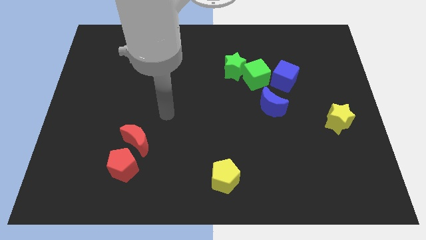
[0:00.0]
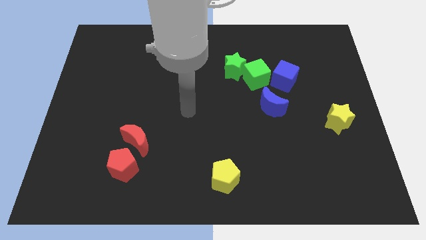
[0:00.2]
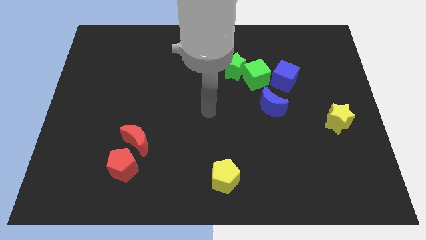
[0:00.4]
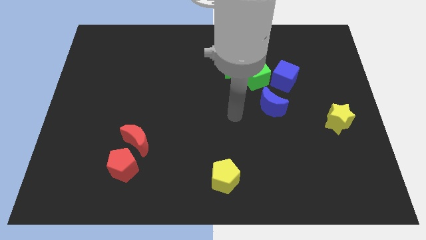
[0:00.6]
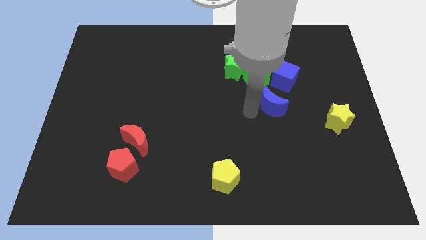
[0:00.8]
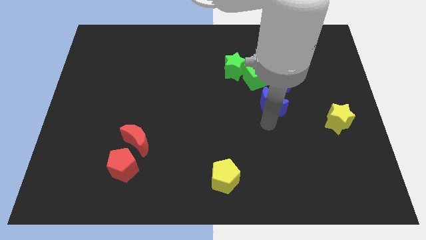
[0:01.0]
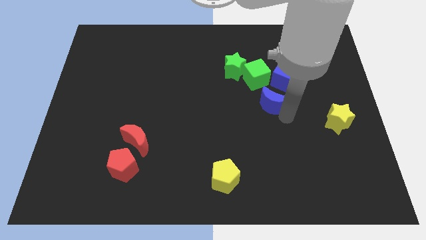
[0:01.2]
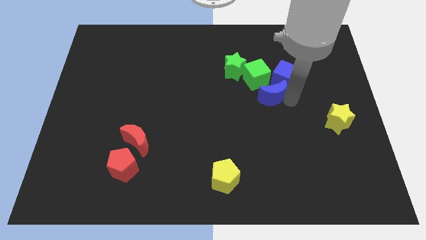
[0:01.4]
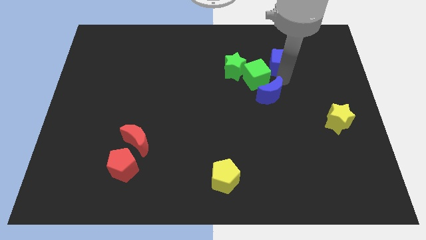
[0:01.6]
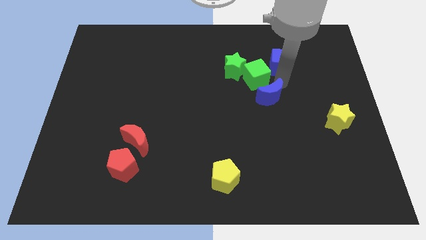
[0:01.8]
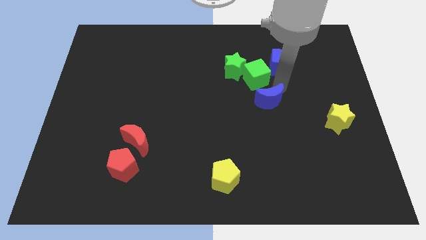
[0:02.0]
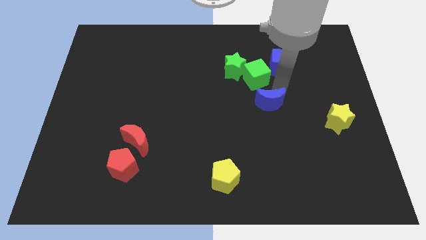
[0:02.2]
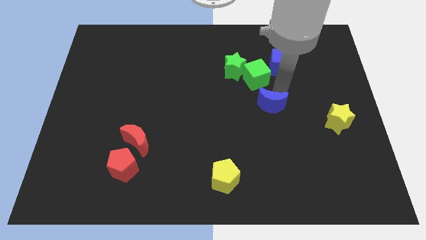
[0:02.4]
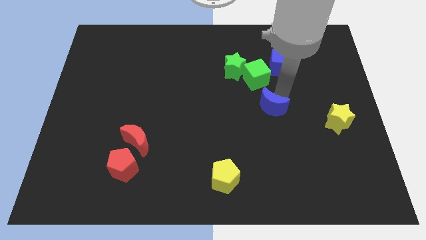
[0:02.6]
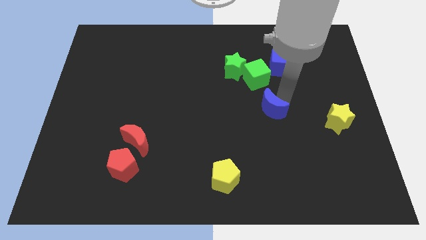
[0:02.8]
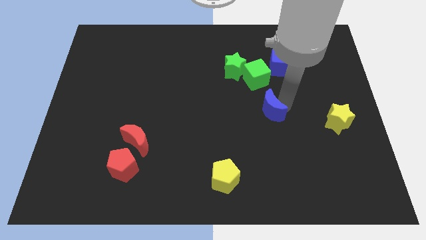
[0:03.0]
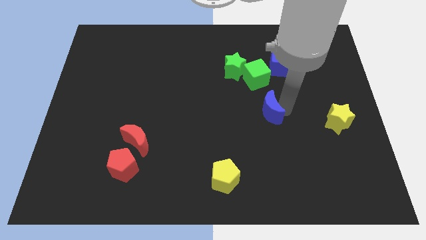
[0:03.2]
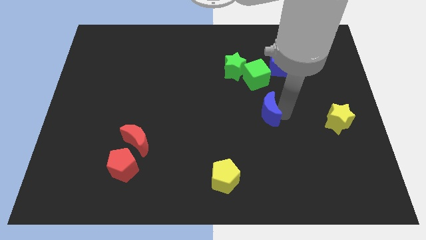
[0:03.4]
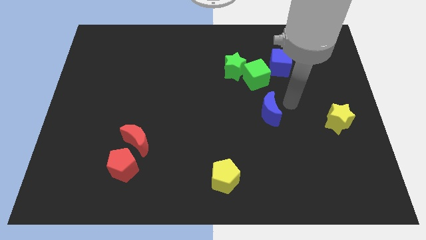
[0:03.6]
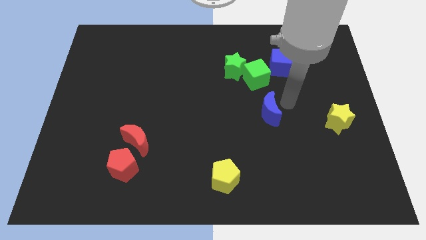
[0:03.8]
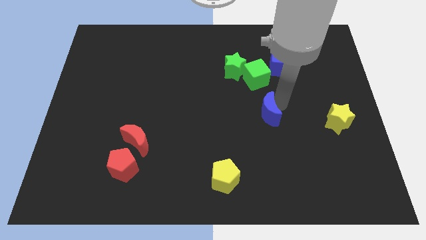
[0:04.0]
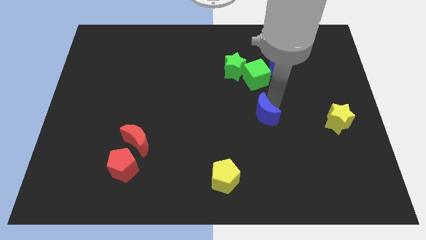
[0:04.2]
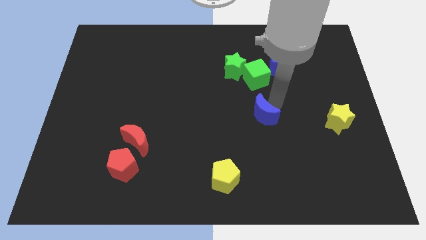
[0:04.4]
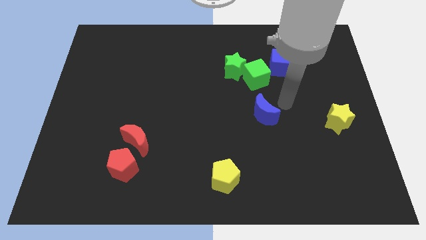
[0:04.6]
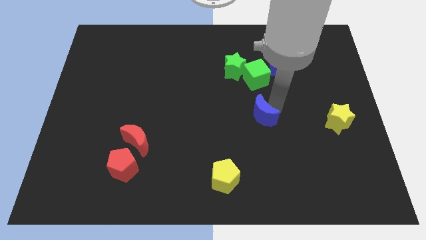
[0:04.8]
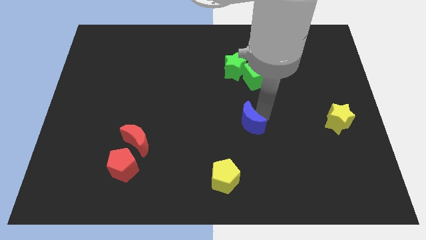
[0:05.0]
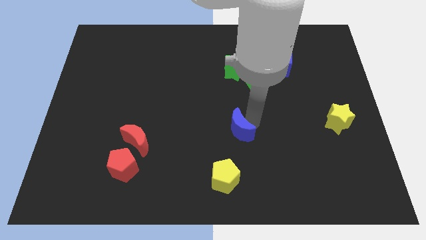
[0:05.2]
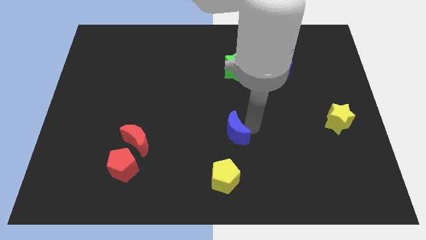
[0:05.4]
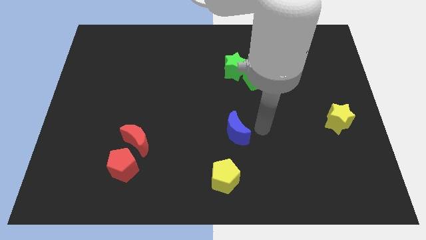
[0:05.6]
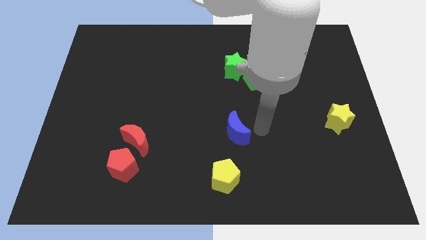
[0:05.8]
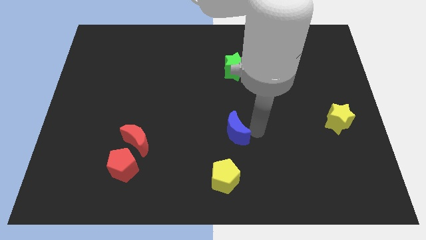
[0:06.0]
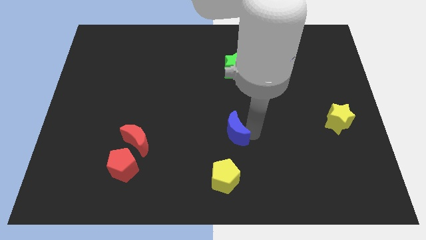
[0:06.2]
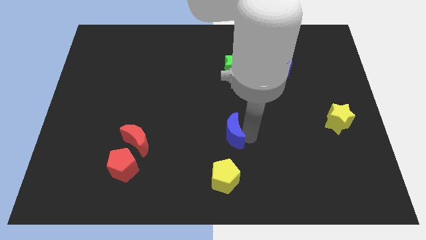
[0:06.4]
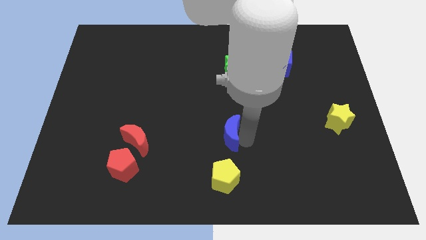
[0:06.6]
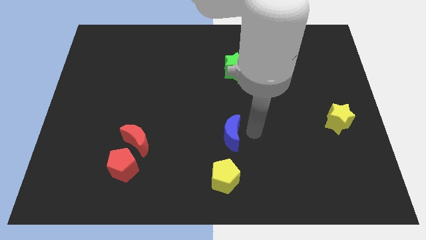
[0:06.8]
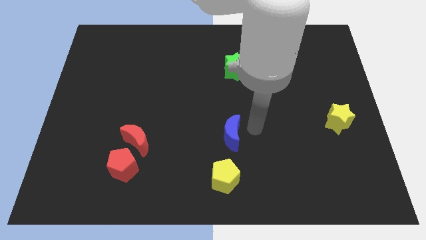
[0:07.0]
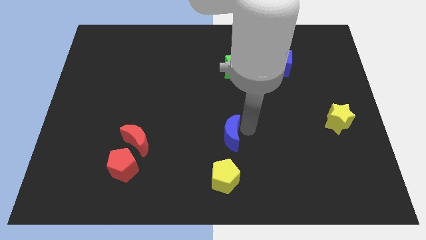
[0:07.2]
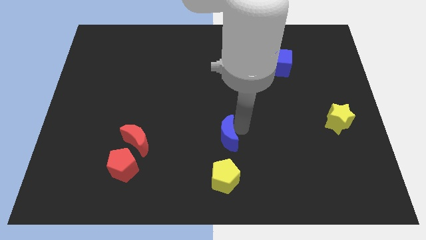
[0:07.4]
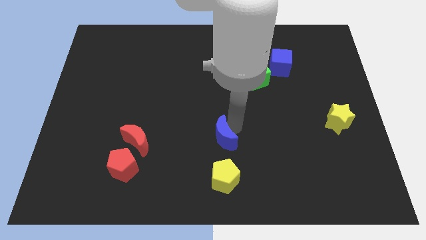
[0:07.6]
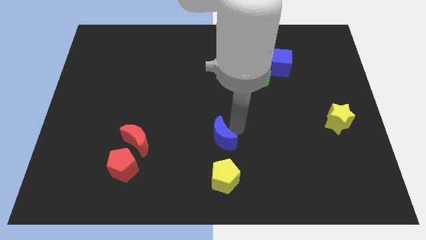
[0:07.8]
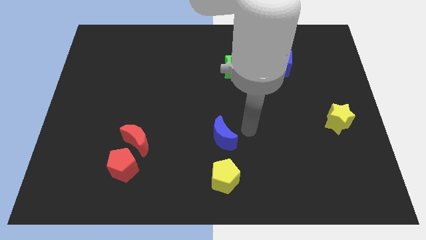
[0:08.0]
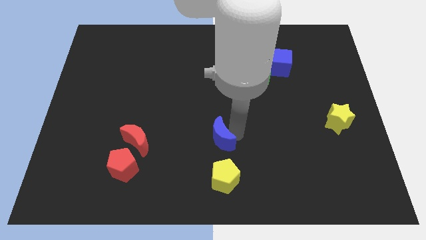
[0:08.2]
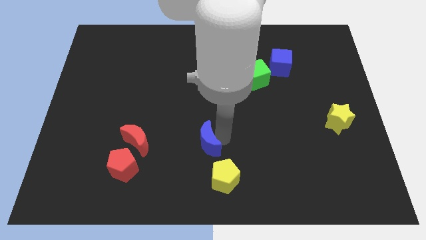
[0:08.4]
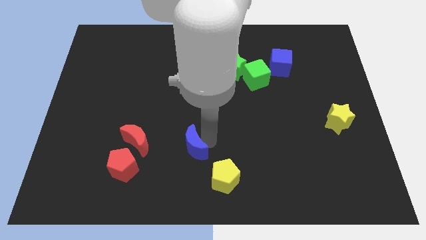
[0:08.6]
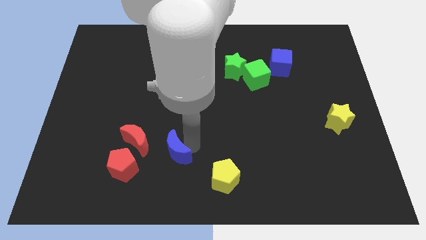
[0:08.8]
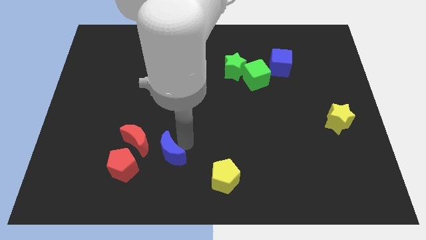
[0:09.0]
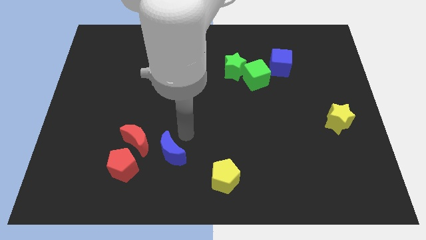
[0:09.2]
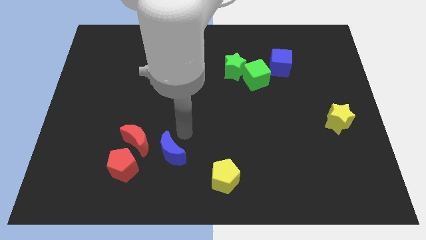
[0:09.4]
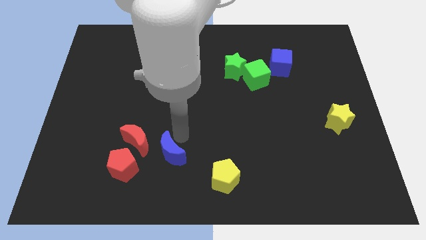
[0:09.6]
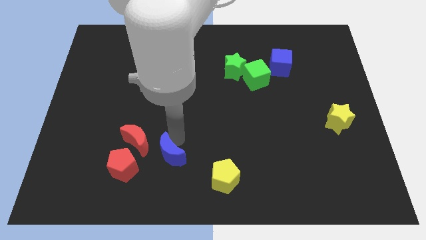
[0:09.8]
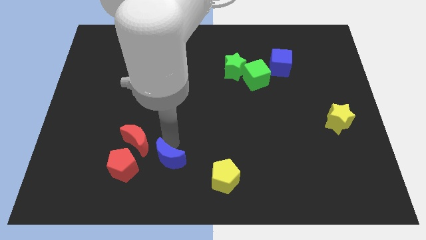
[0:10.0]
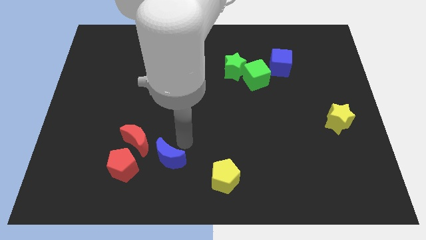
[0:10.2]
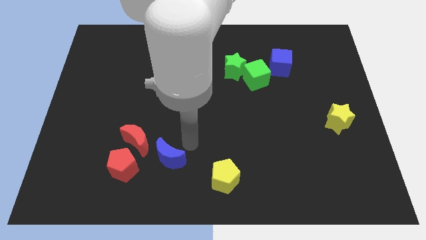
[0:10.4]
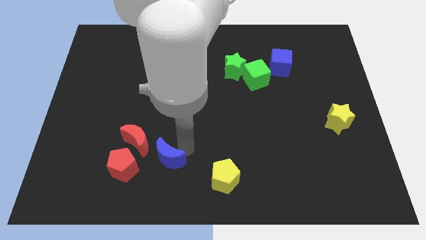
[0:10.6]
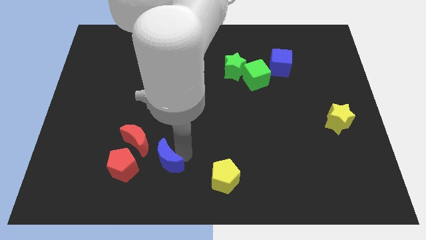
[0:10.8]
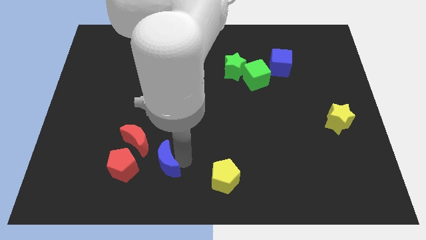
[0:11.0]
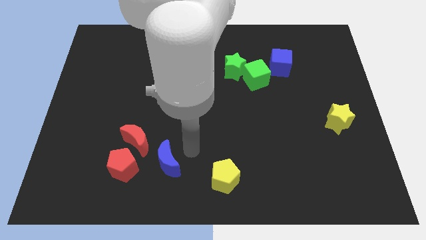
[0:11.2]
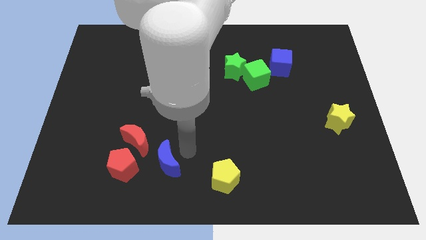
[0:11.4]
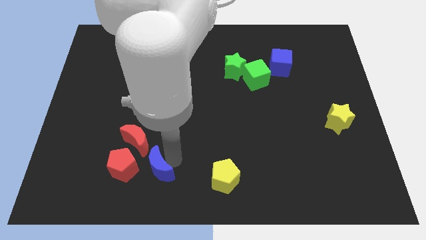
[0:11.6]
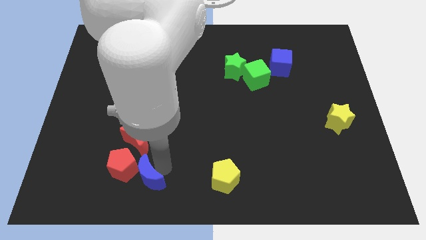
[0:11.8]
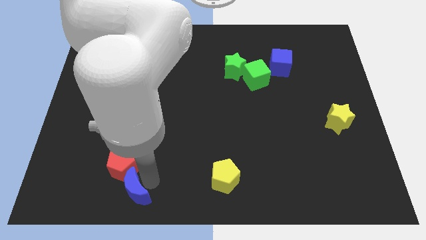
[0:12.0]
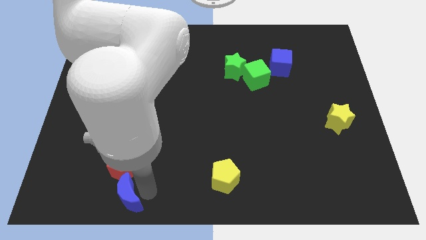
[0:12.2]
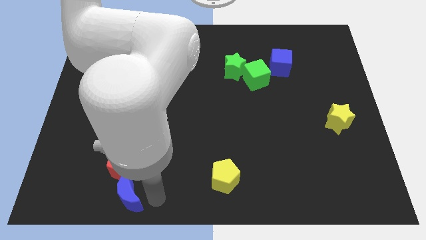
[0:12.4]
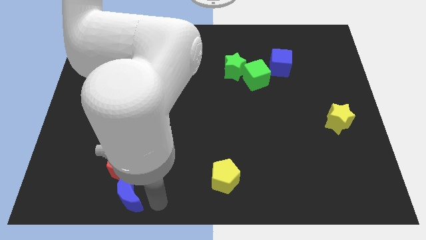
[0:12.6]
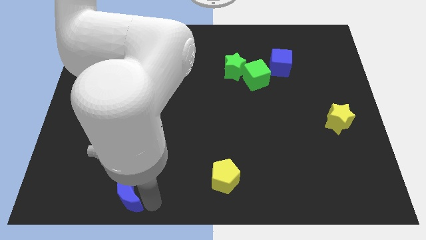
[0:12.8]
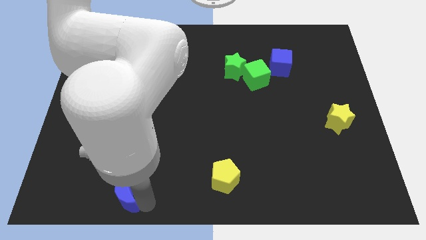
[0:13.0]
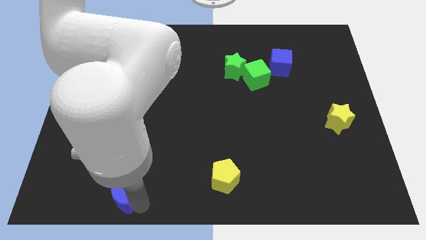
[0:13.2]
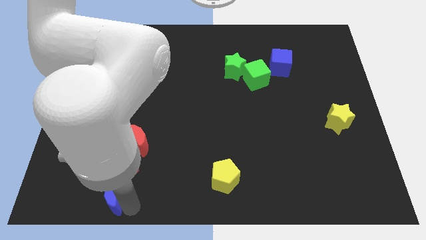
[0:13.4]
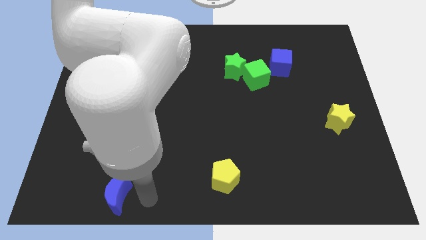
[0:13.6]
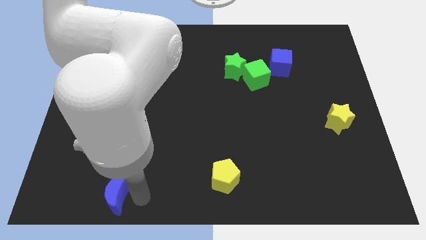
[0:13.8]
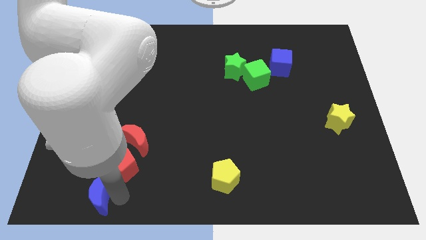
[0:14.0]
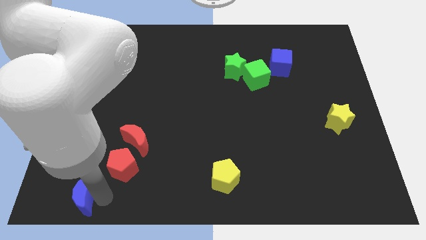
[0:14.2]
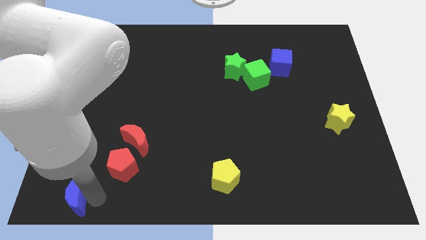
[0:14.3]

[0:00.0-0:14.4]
put the blue moon to the lower left corner
